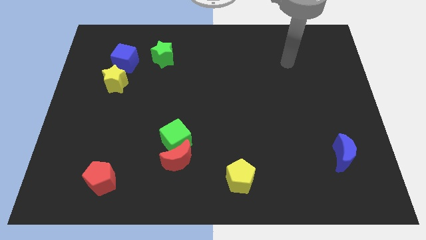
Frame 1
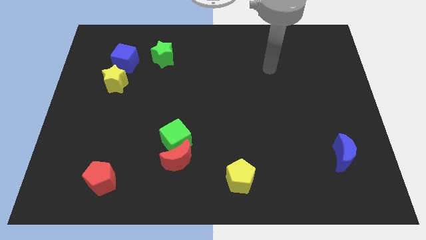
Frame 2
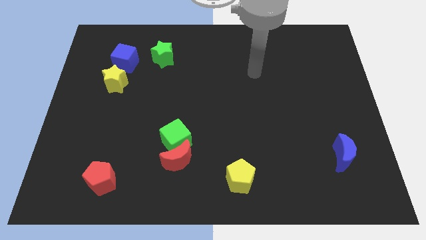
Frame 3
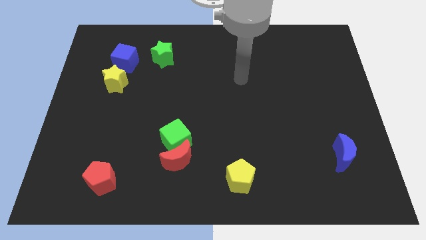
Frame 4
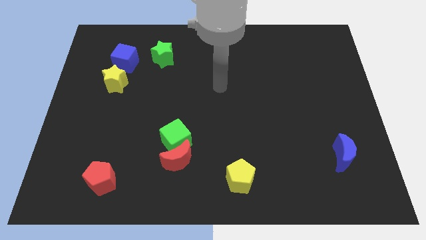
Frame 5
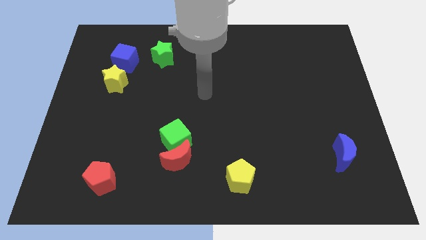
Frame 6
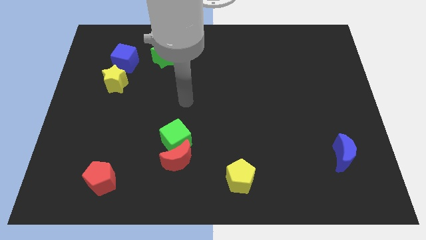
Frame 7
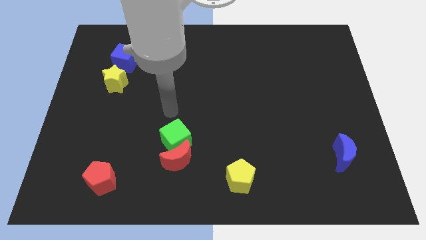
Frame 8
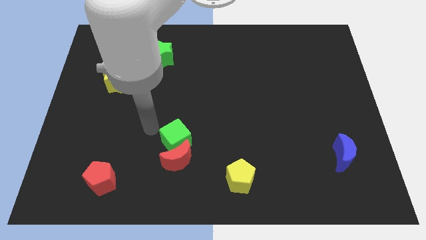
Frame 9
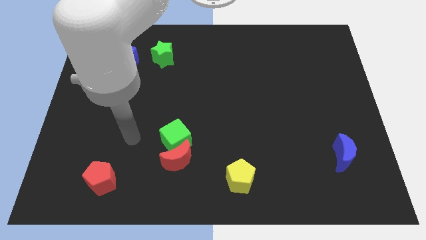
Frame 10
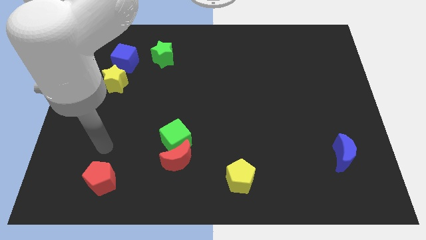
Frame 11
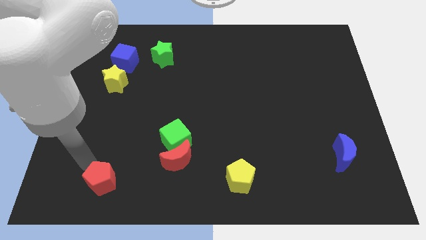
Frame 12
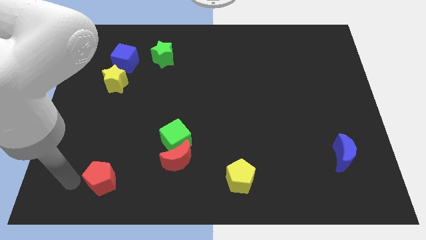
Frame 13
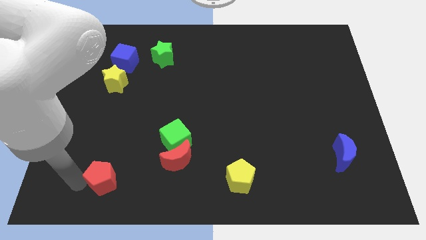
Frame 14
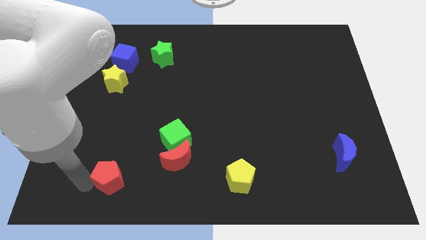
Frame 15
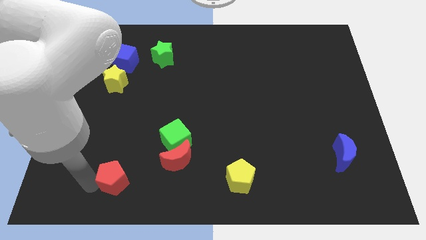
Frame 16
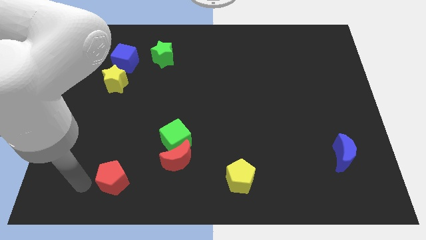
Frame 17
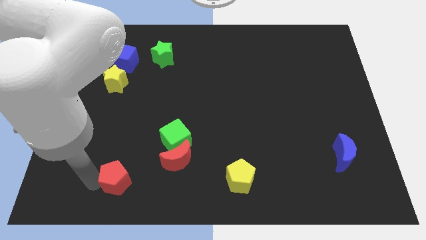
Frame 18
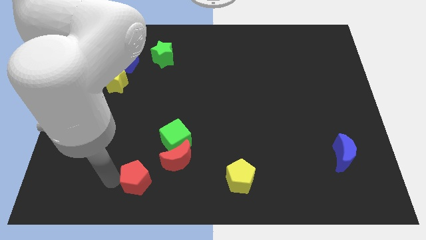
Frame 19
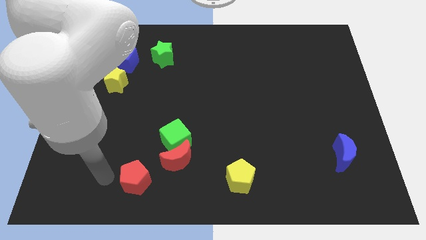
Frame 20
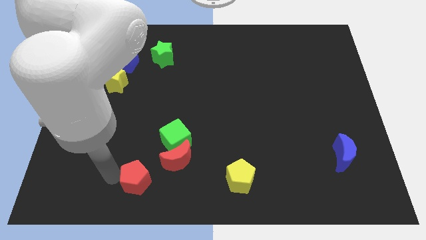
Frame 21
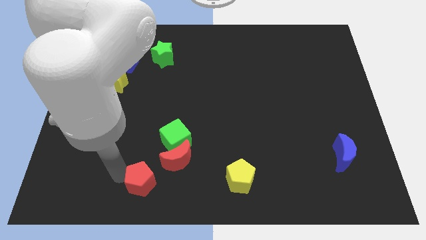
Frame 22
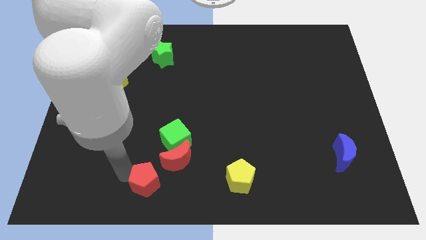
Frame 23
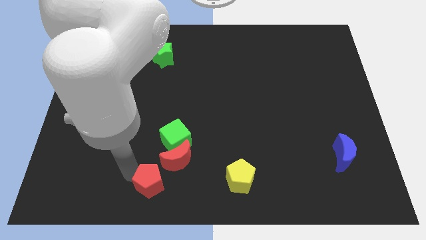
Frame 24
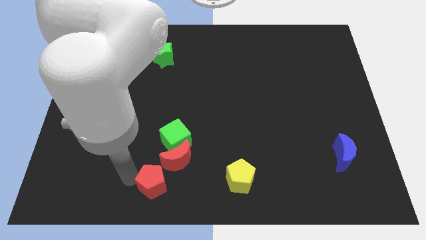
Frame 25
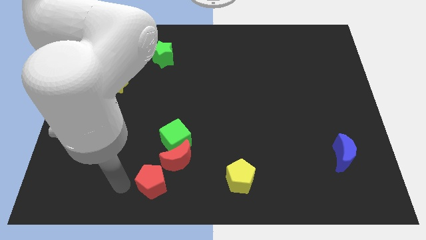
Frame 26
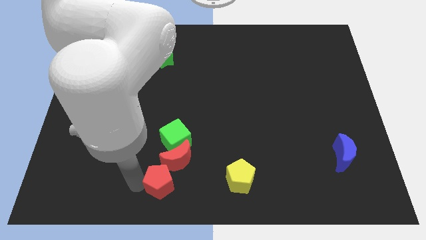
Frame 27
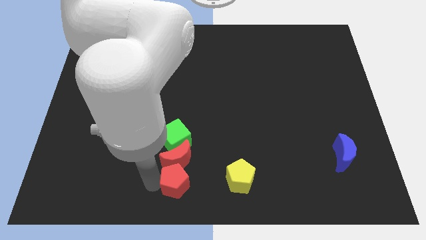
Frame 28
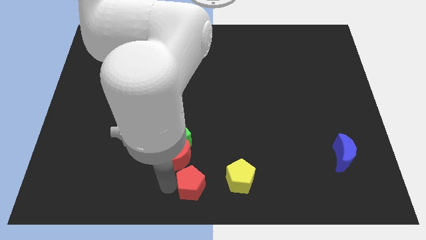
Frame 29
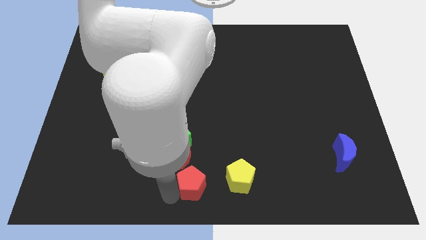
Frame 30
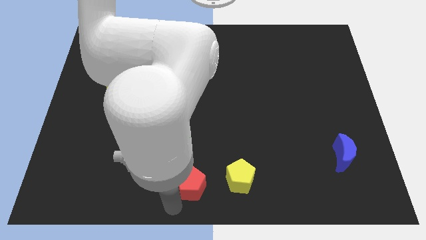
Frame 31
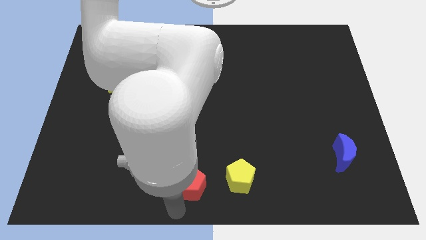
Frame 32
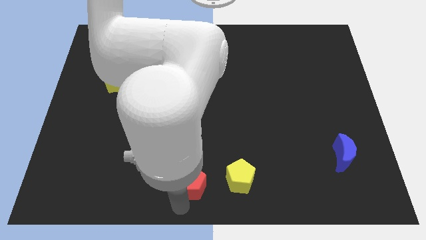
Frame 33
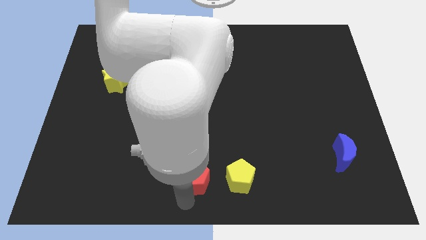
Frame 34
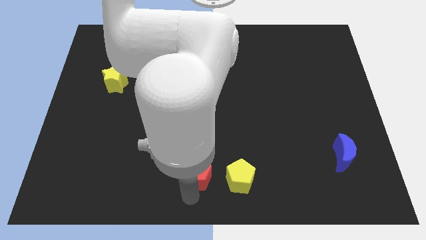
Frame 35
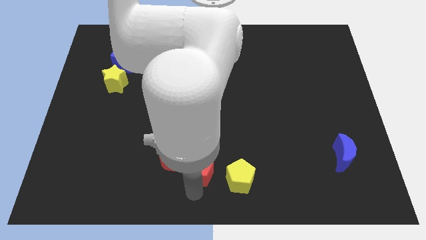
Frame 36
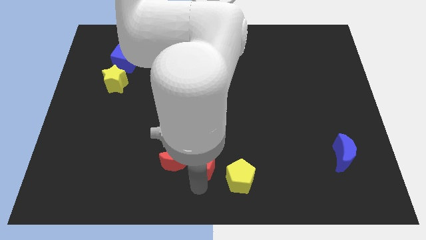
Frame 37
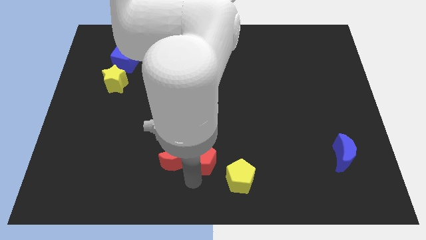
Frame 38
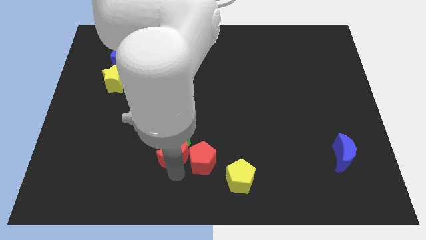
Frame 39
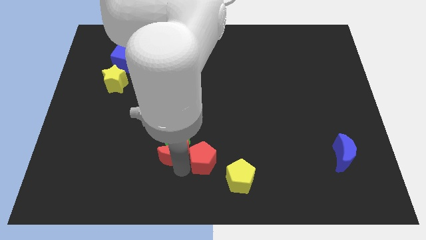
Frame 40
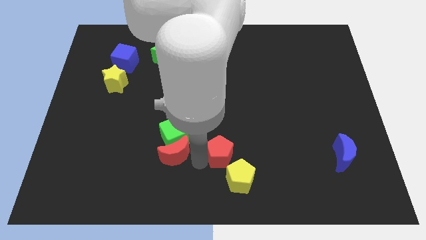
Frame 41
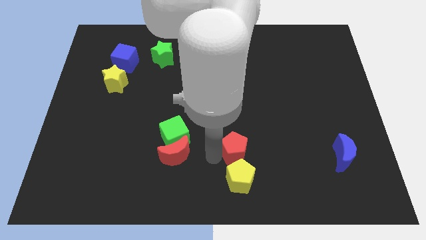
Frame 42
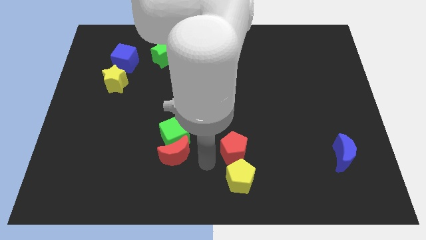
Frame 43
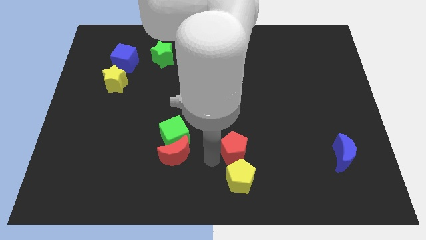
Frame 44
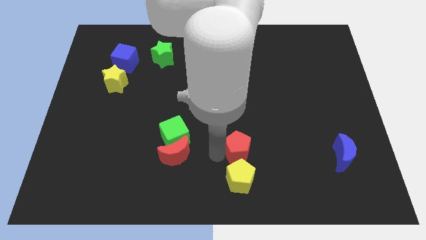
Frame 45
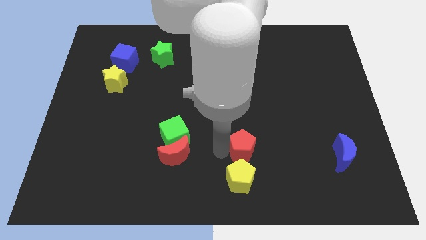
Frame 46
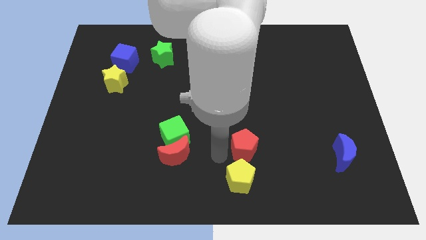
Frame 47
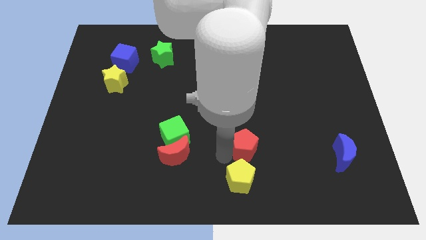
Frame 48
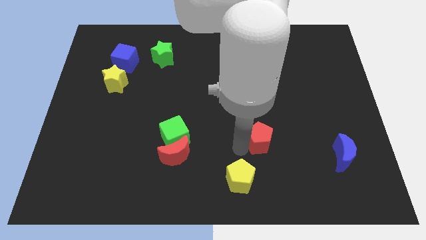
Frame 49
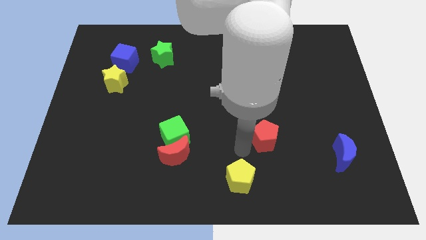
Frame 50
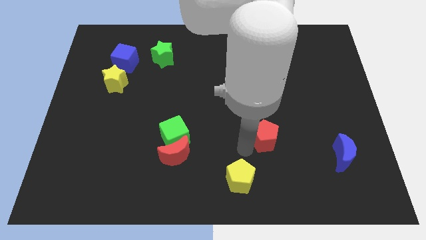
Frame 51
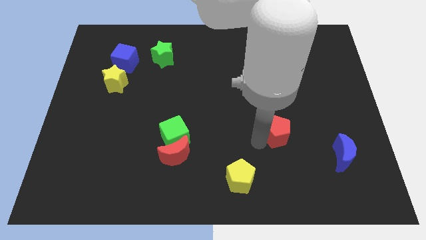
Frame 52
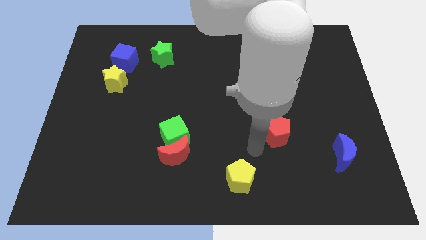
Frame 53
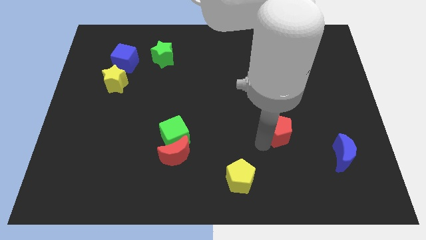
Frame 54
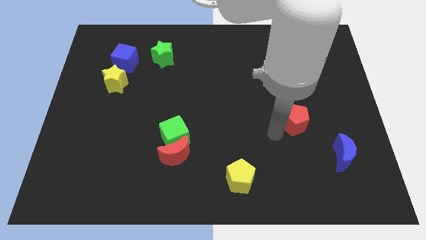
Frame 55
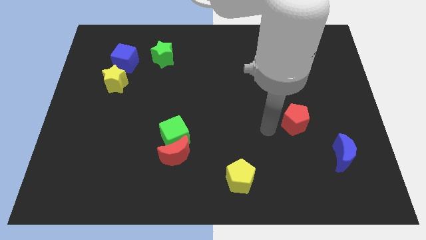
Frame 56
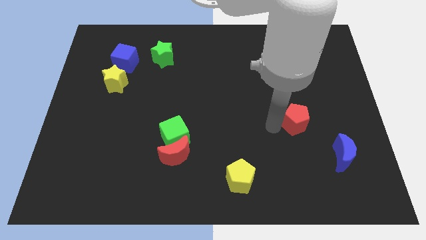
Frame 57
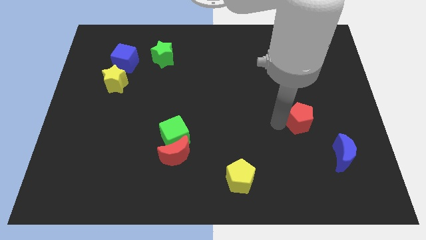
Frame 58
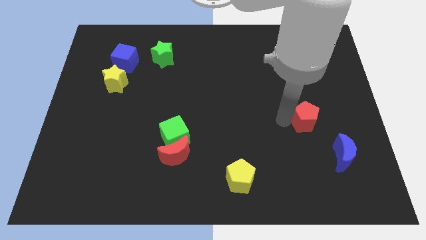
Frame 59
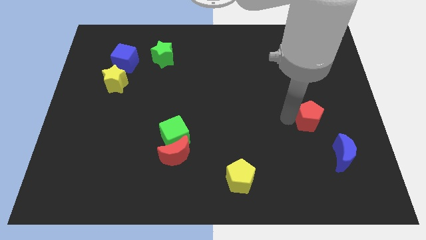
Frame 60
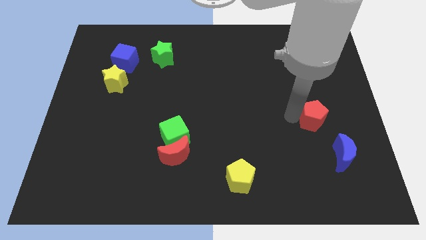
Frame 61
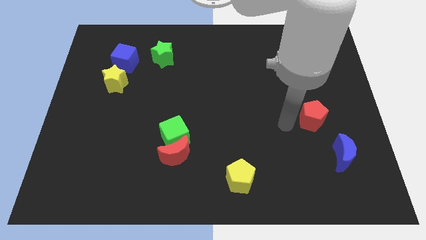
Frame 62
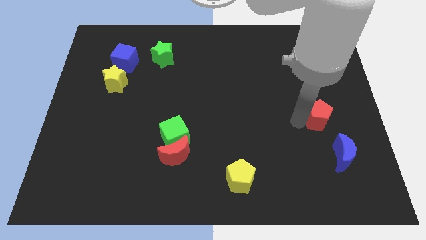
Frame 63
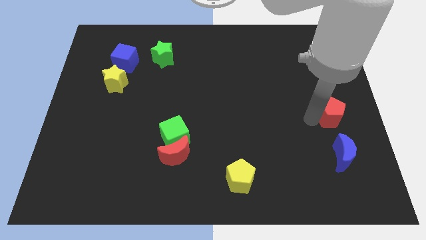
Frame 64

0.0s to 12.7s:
push the red pentagon to the right side

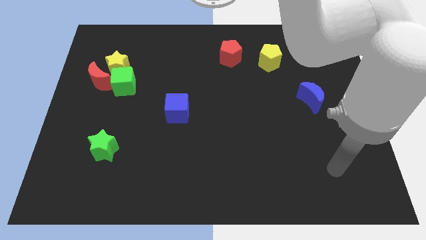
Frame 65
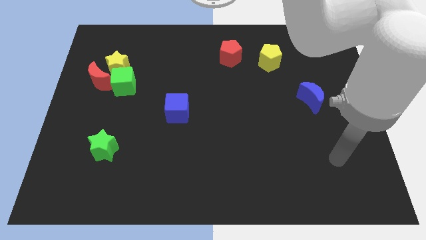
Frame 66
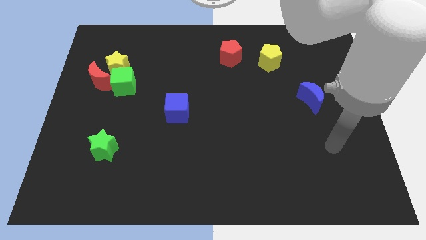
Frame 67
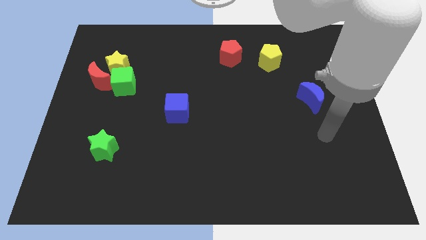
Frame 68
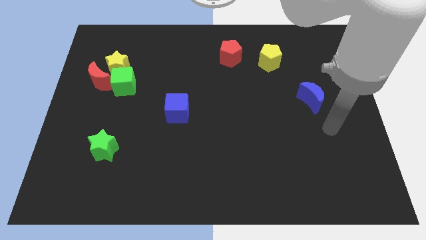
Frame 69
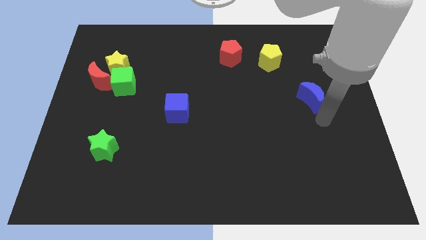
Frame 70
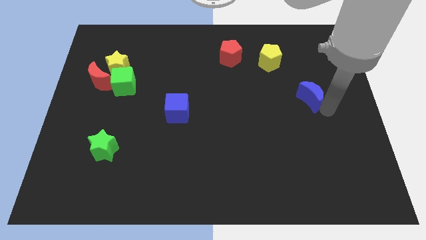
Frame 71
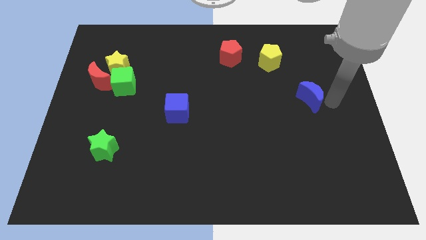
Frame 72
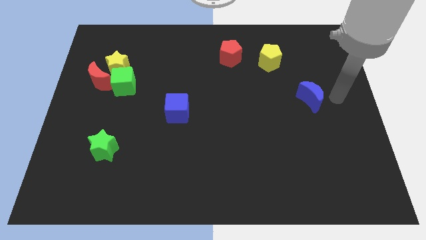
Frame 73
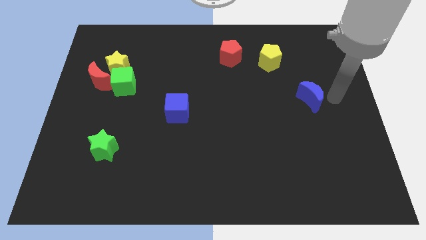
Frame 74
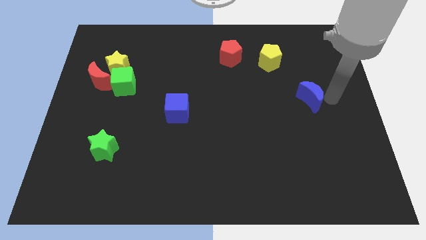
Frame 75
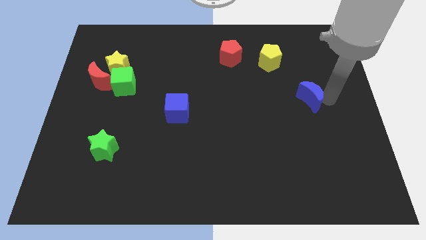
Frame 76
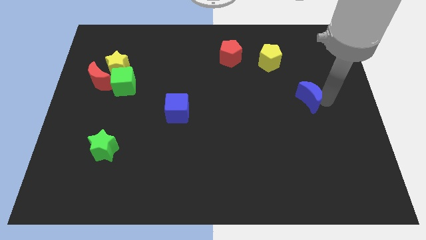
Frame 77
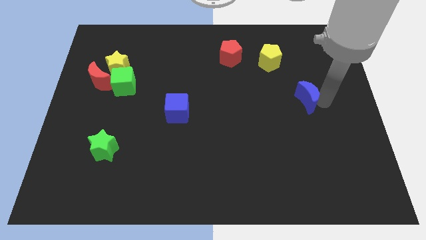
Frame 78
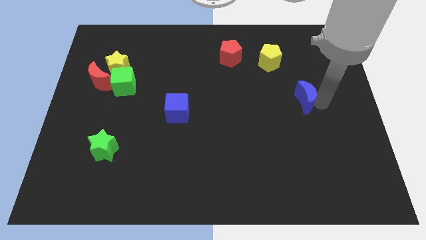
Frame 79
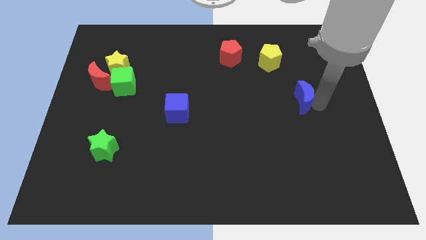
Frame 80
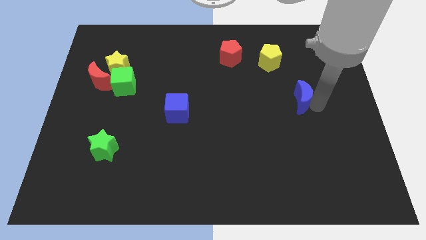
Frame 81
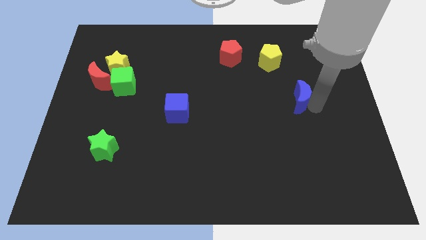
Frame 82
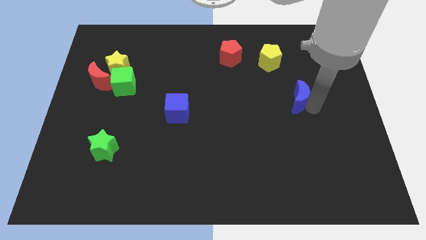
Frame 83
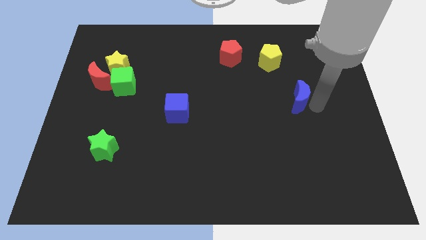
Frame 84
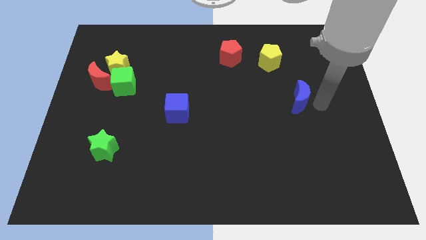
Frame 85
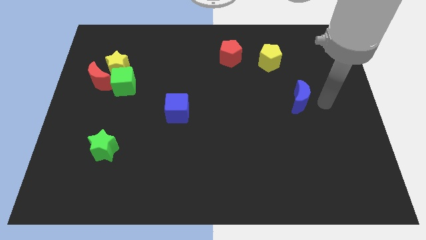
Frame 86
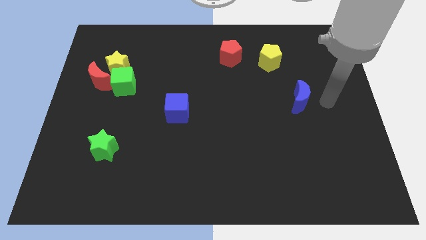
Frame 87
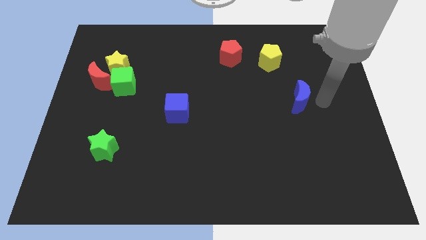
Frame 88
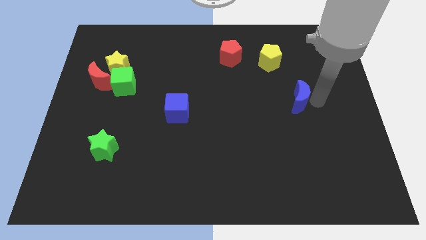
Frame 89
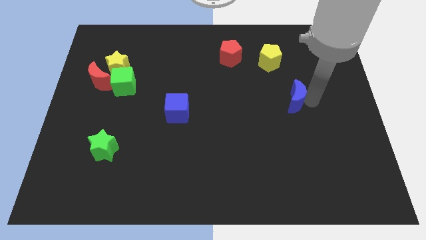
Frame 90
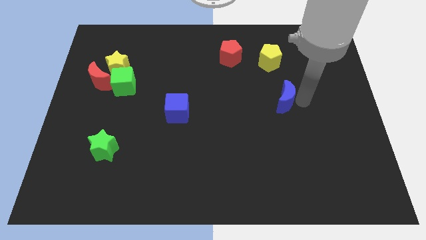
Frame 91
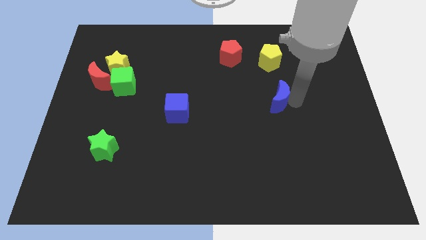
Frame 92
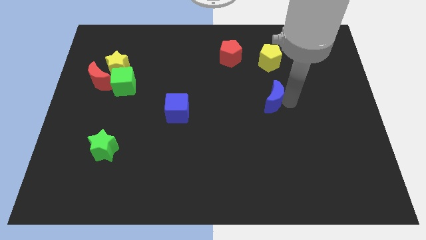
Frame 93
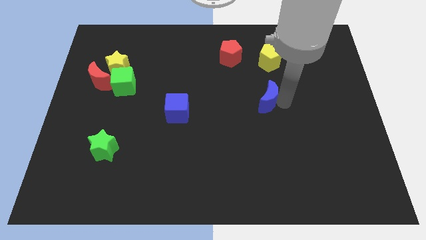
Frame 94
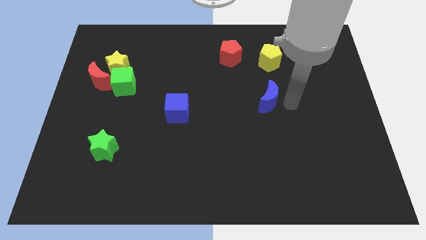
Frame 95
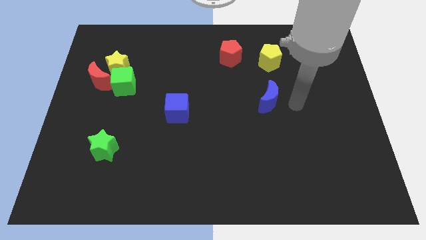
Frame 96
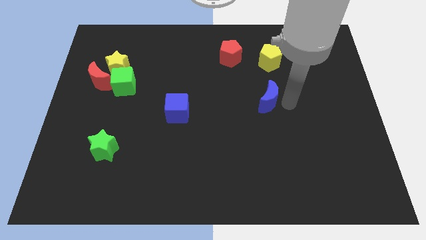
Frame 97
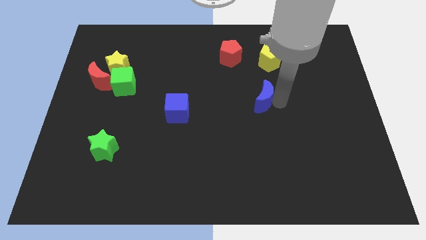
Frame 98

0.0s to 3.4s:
push the blue moon to the center
